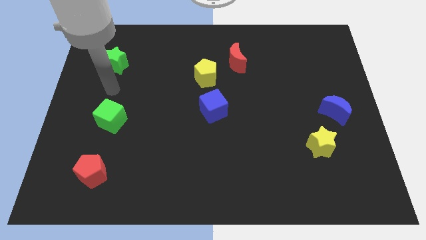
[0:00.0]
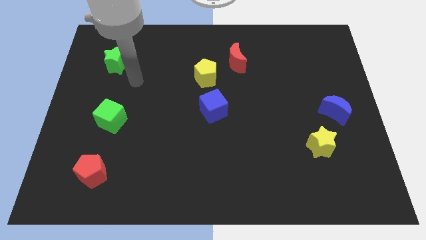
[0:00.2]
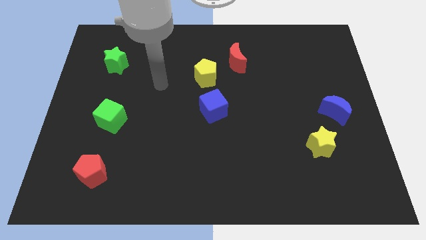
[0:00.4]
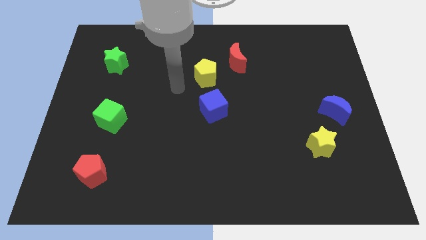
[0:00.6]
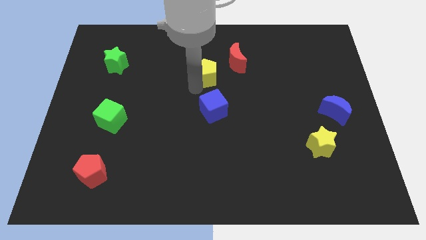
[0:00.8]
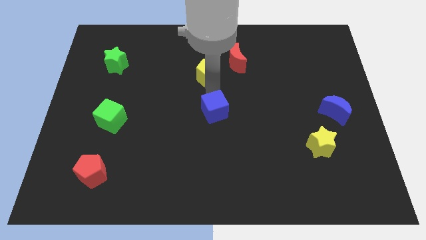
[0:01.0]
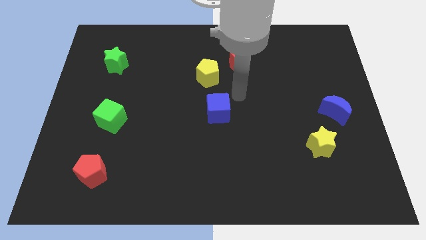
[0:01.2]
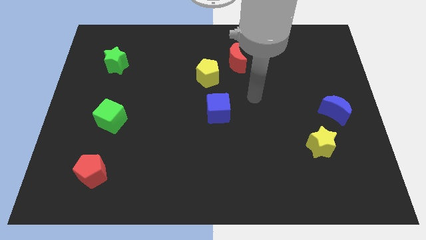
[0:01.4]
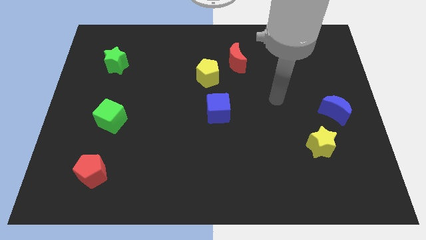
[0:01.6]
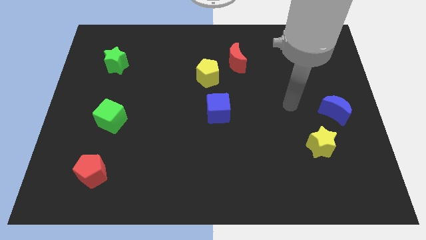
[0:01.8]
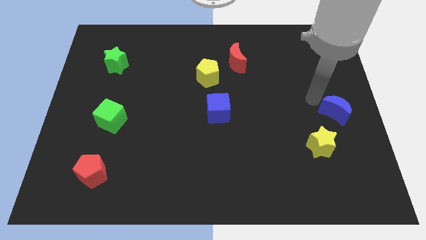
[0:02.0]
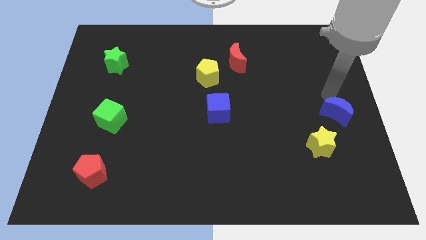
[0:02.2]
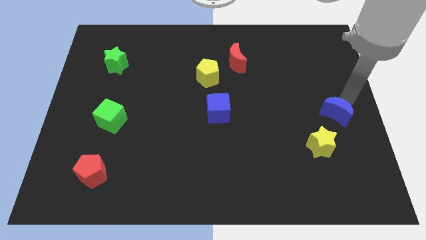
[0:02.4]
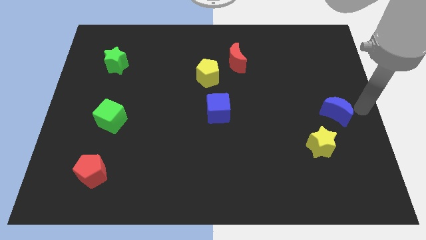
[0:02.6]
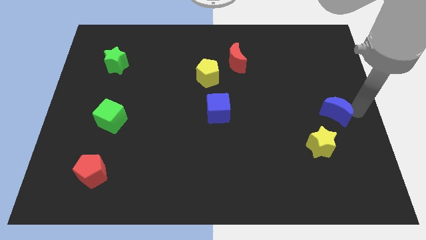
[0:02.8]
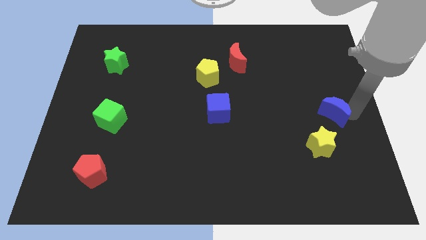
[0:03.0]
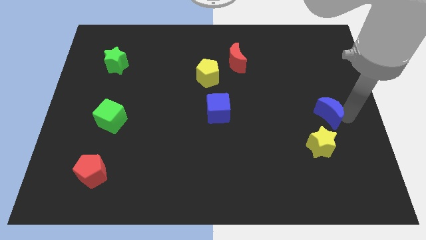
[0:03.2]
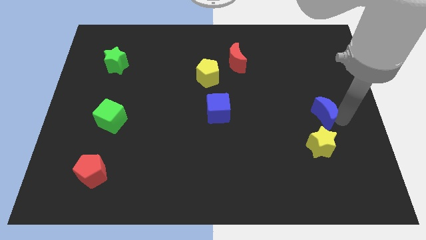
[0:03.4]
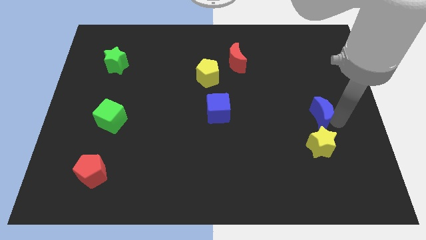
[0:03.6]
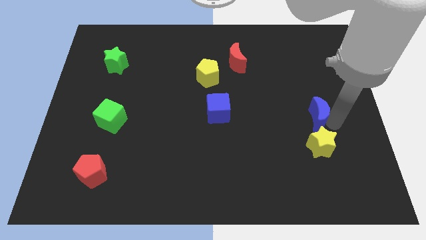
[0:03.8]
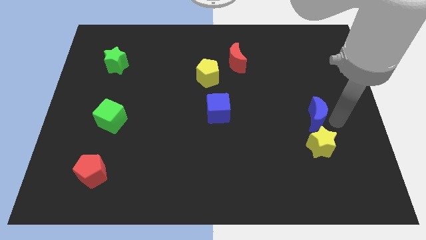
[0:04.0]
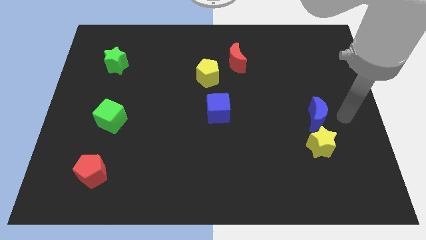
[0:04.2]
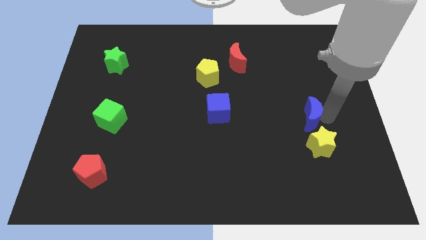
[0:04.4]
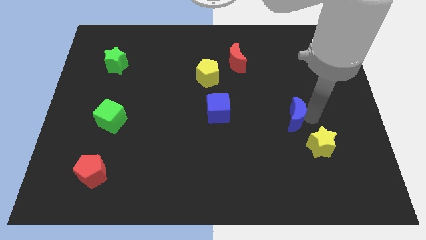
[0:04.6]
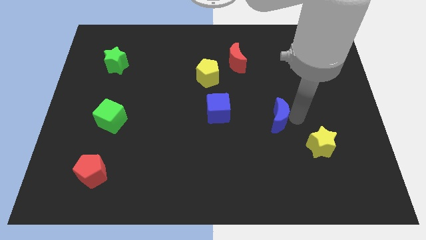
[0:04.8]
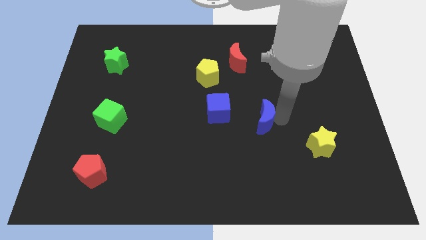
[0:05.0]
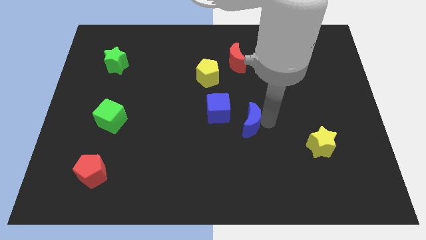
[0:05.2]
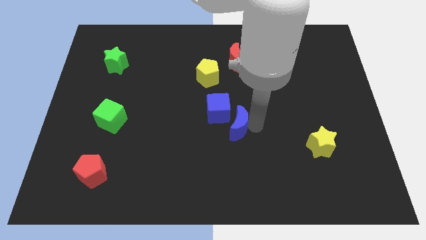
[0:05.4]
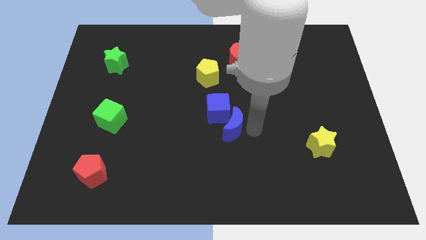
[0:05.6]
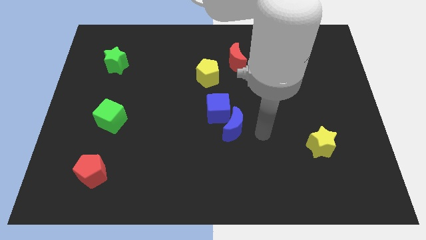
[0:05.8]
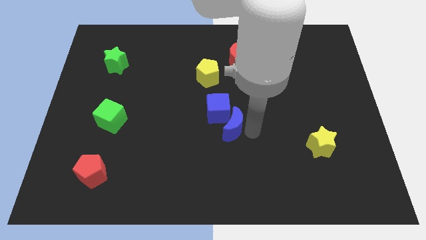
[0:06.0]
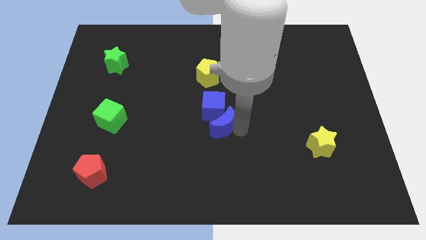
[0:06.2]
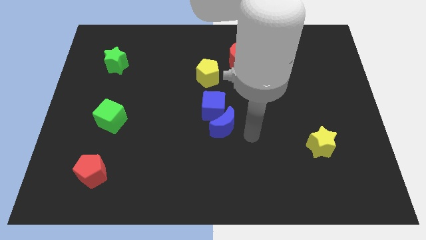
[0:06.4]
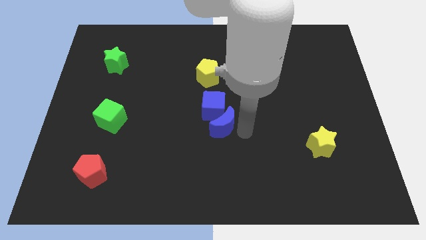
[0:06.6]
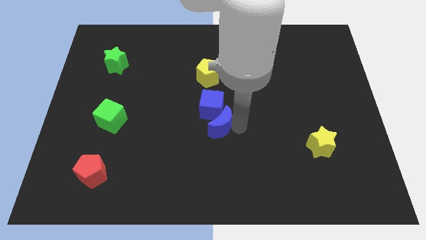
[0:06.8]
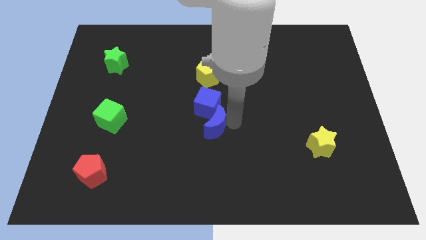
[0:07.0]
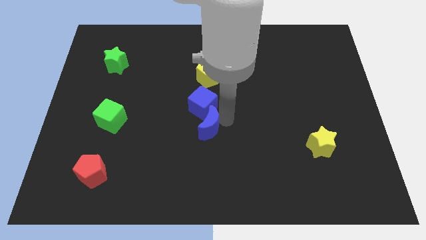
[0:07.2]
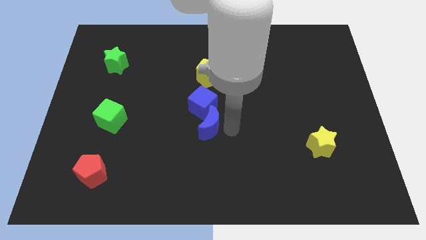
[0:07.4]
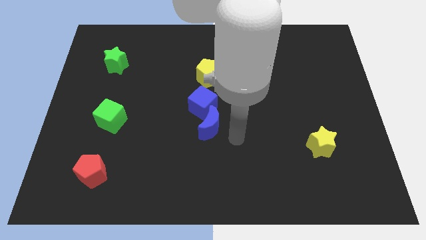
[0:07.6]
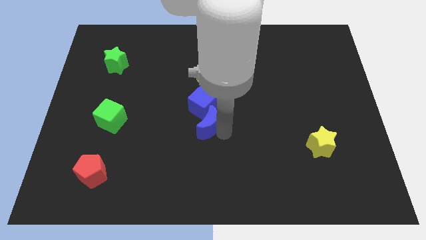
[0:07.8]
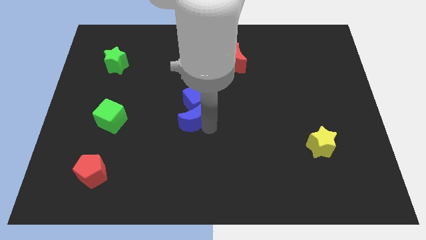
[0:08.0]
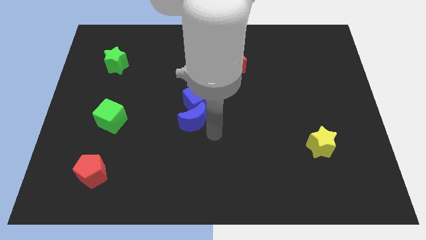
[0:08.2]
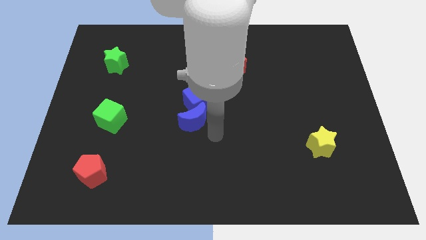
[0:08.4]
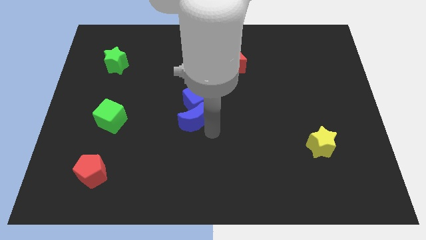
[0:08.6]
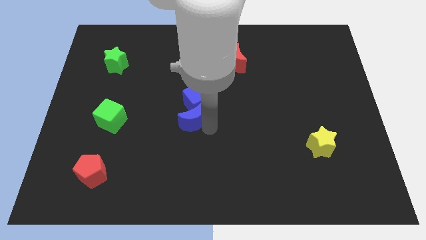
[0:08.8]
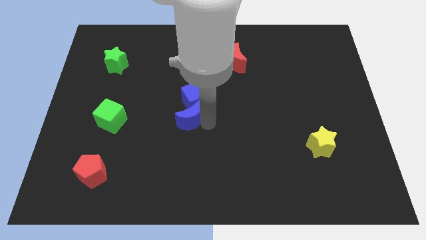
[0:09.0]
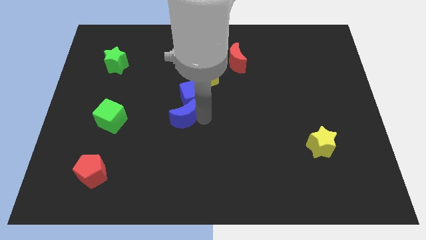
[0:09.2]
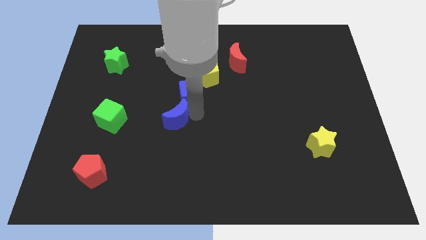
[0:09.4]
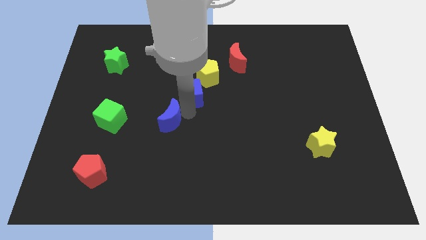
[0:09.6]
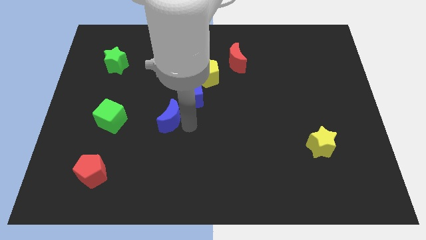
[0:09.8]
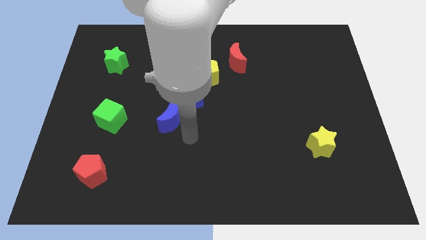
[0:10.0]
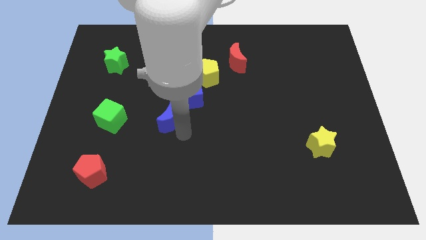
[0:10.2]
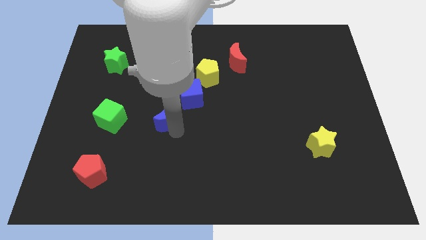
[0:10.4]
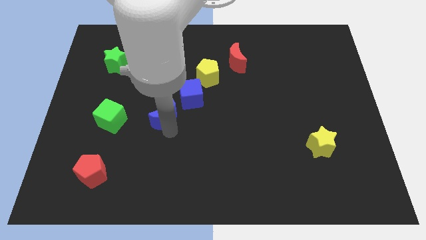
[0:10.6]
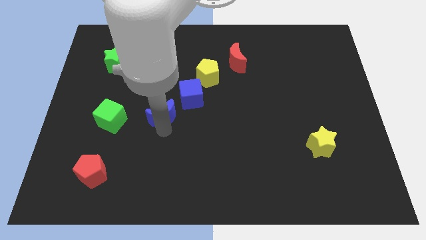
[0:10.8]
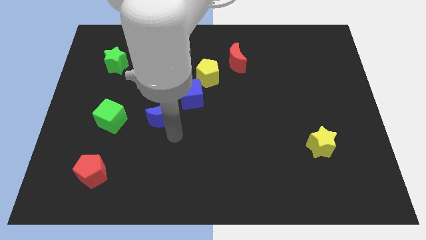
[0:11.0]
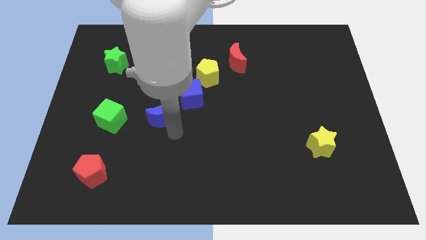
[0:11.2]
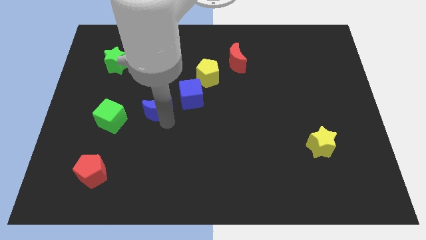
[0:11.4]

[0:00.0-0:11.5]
put the blue moon to the left of the blue cube

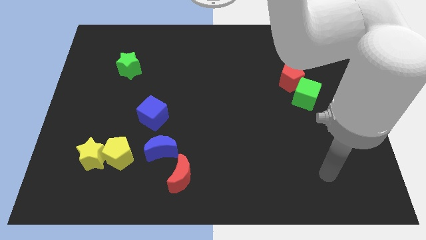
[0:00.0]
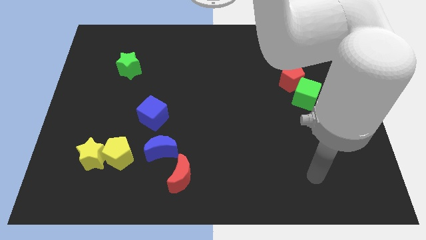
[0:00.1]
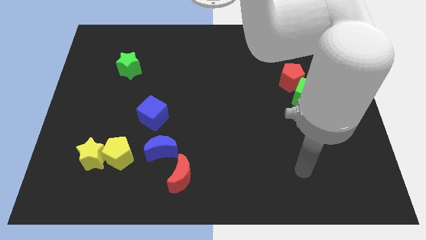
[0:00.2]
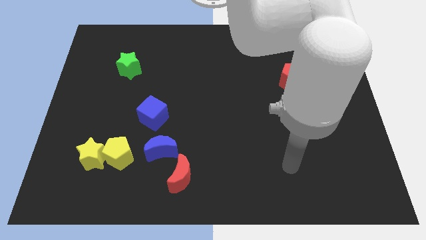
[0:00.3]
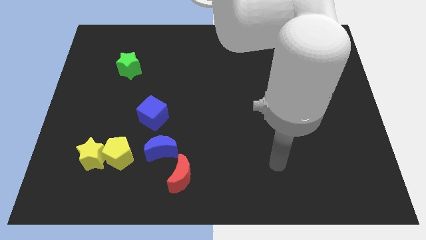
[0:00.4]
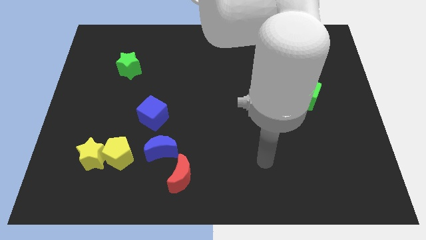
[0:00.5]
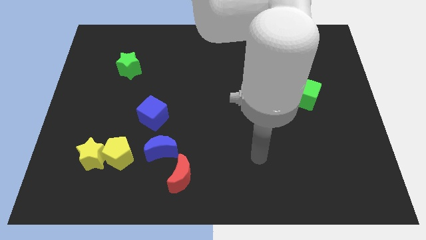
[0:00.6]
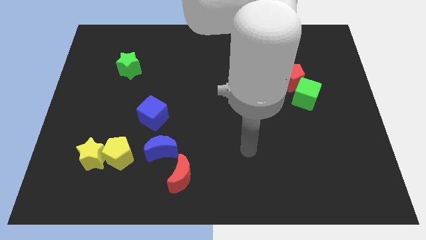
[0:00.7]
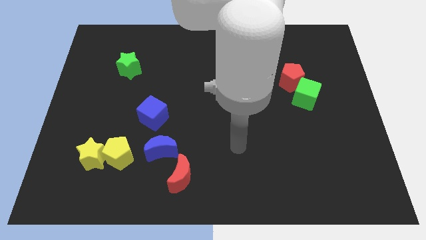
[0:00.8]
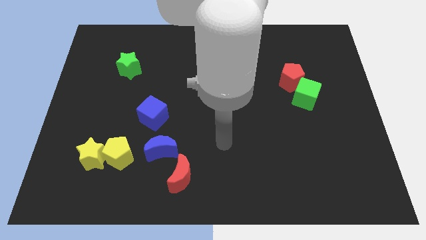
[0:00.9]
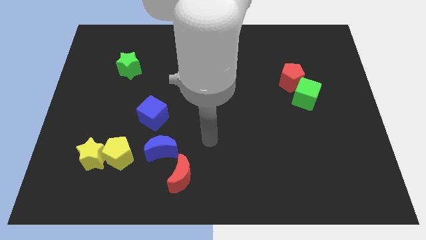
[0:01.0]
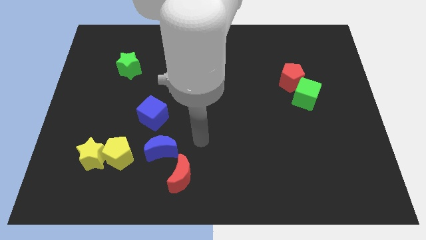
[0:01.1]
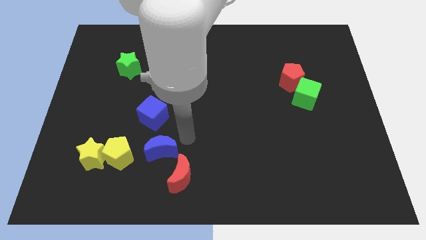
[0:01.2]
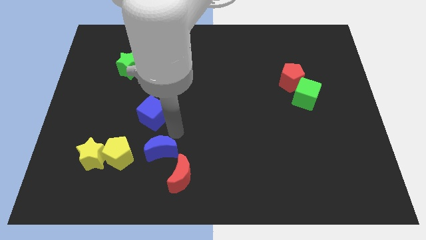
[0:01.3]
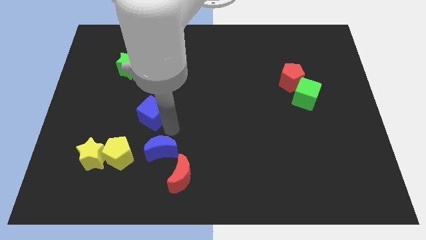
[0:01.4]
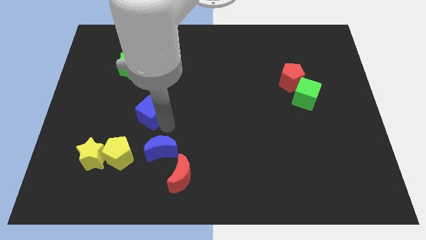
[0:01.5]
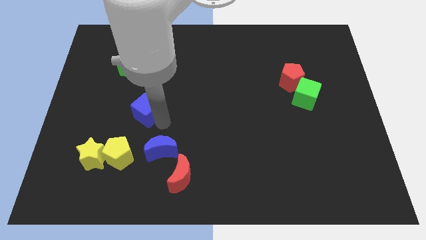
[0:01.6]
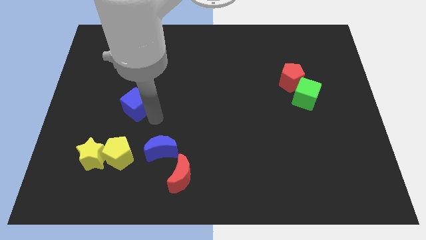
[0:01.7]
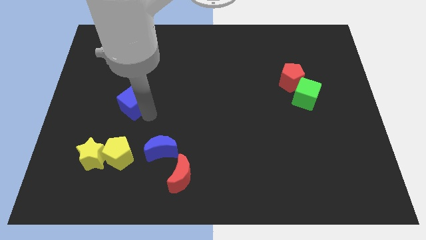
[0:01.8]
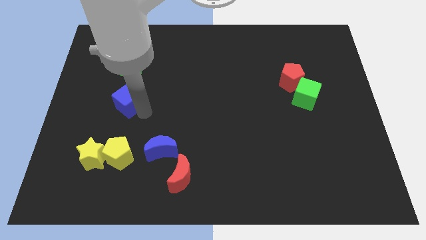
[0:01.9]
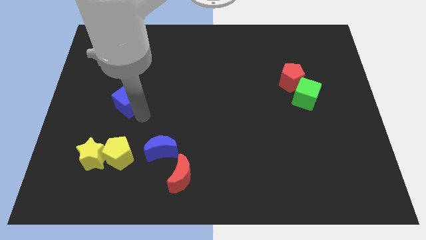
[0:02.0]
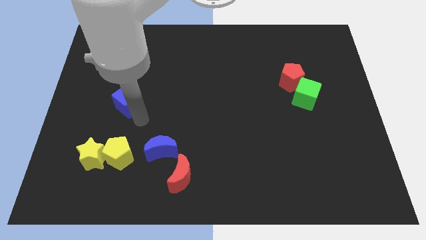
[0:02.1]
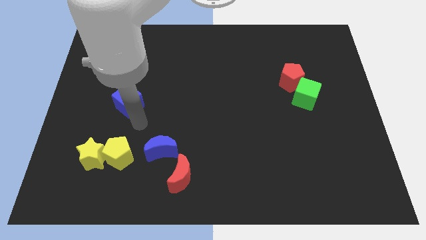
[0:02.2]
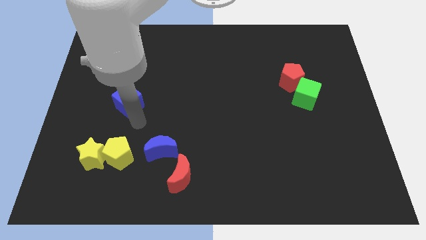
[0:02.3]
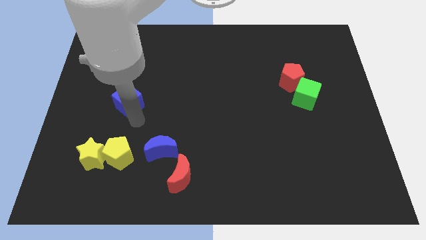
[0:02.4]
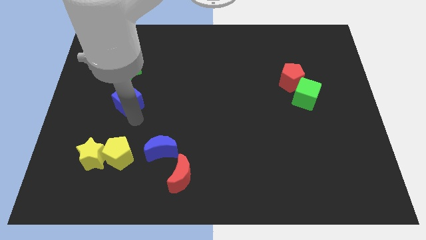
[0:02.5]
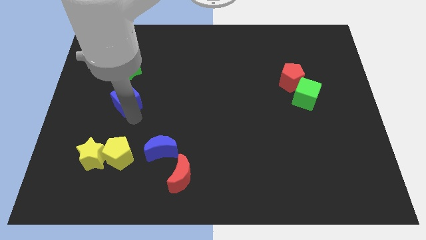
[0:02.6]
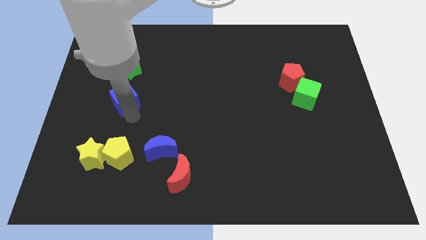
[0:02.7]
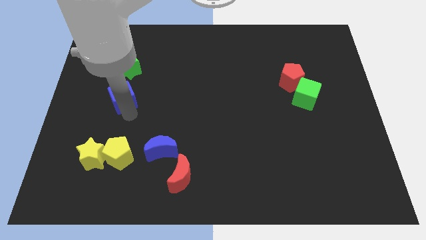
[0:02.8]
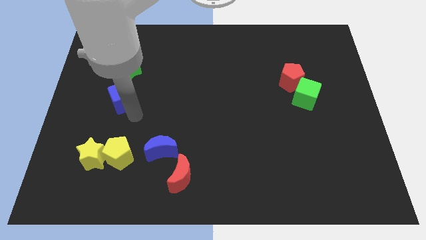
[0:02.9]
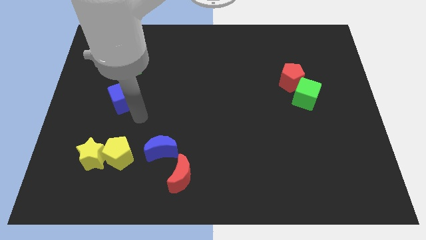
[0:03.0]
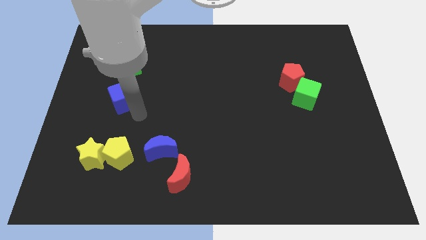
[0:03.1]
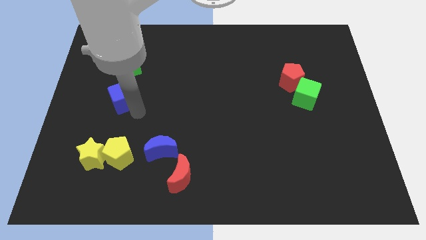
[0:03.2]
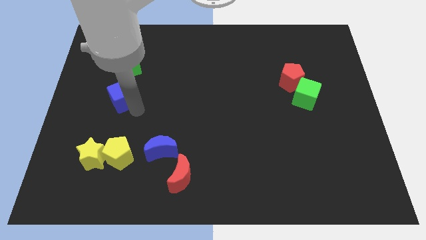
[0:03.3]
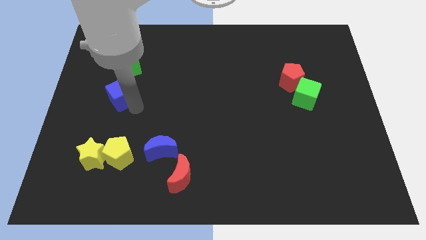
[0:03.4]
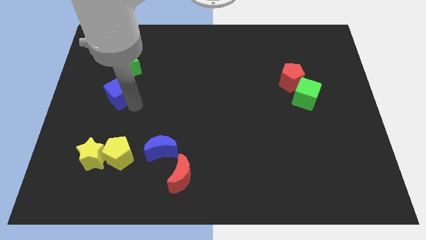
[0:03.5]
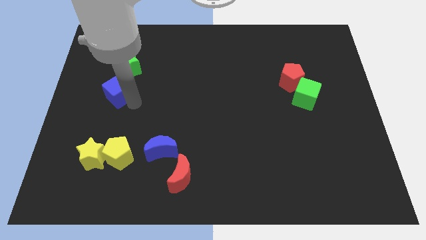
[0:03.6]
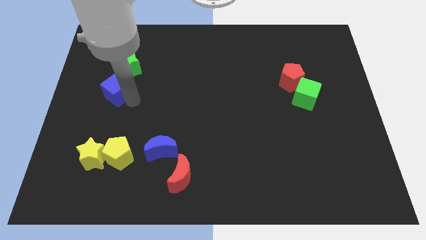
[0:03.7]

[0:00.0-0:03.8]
slide the blue cube to the bottom left side of the green star
